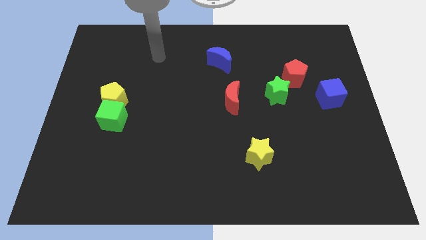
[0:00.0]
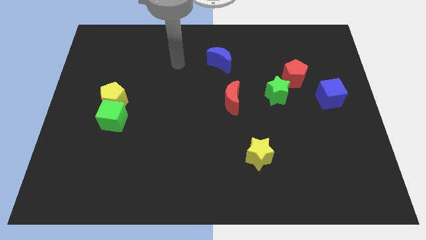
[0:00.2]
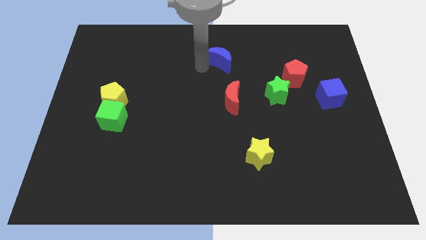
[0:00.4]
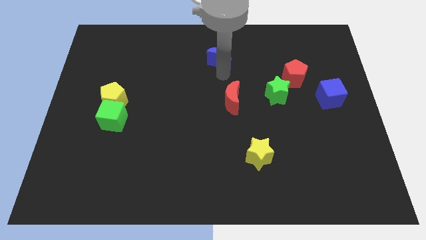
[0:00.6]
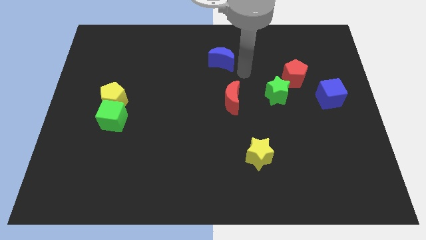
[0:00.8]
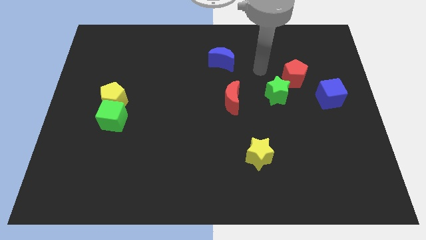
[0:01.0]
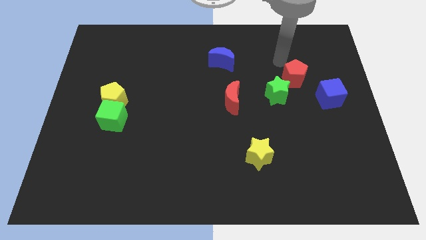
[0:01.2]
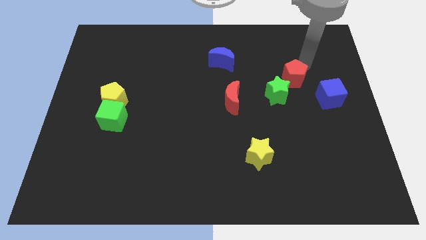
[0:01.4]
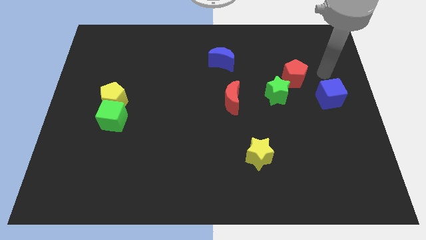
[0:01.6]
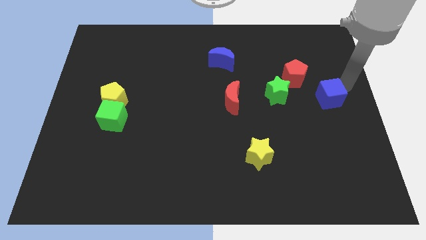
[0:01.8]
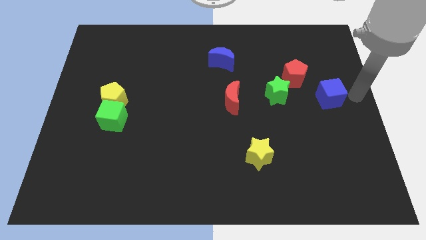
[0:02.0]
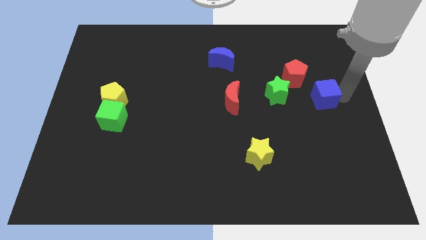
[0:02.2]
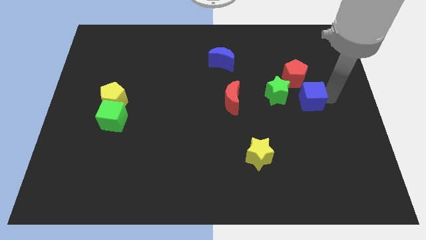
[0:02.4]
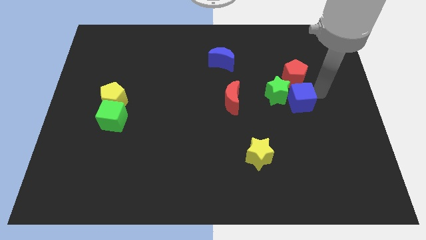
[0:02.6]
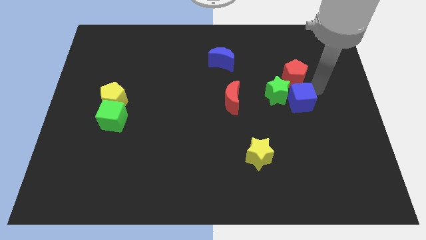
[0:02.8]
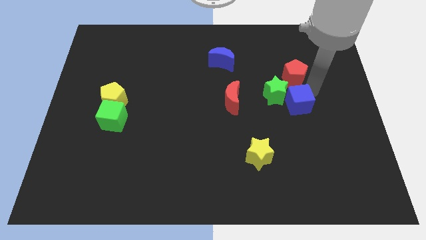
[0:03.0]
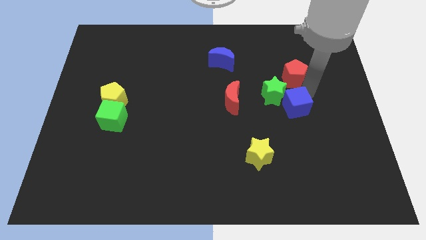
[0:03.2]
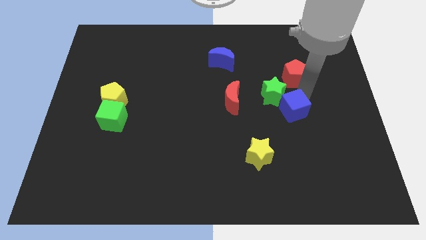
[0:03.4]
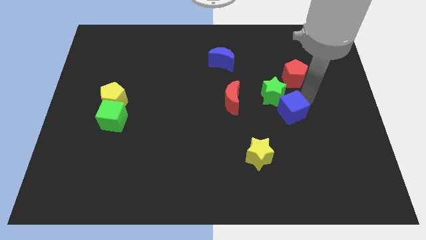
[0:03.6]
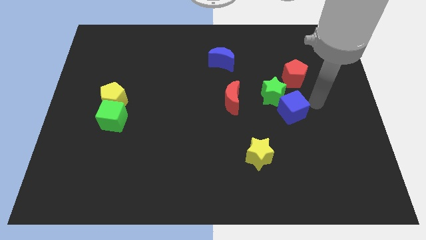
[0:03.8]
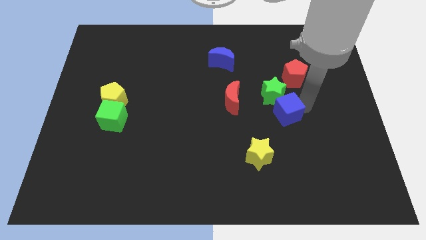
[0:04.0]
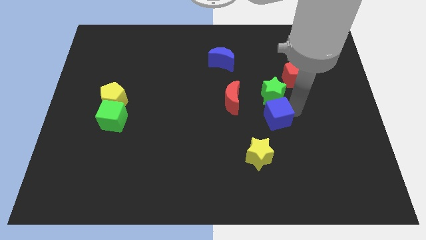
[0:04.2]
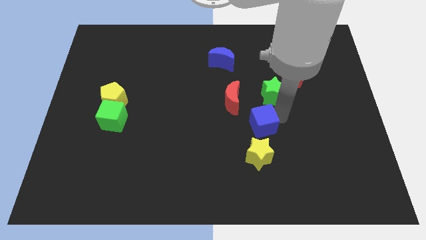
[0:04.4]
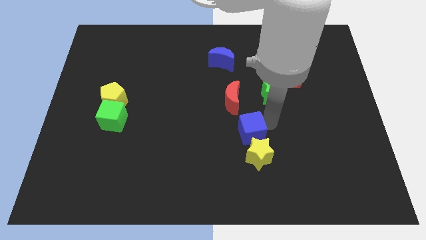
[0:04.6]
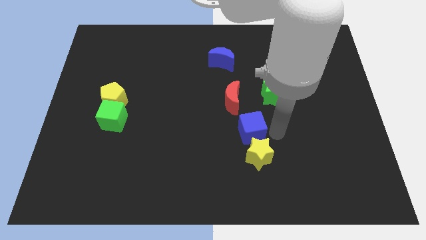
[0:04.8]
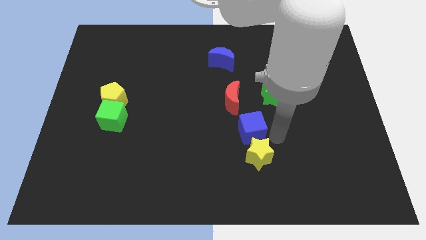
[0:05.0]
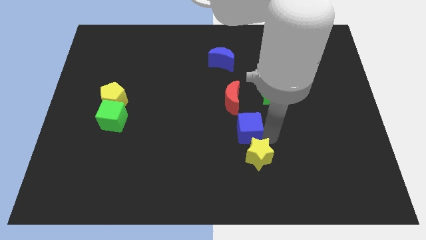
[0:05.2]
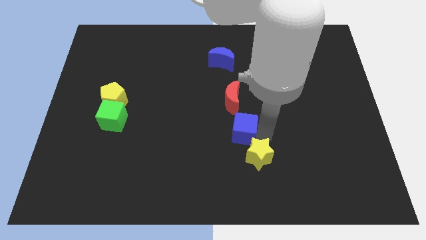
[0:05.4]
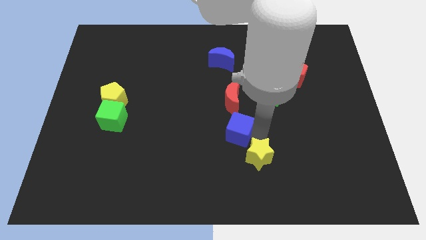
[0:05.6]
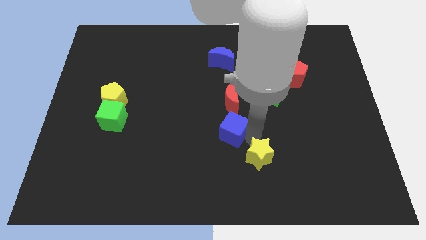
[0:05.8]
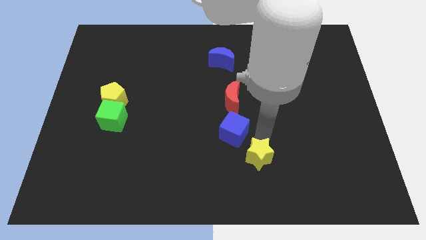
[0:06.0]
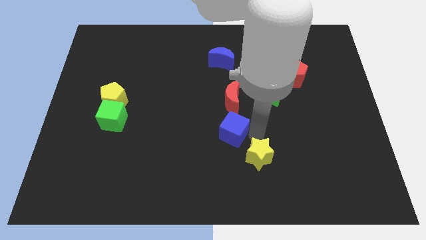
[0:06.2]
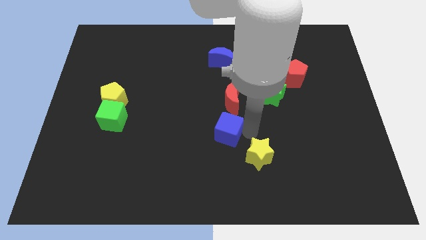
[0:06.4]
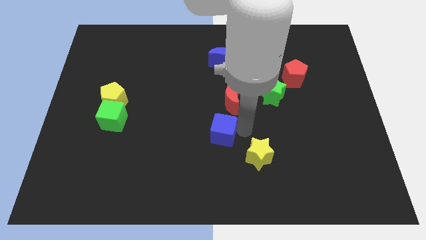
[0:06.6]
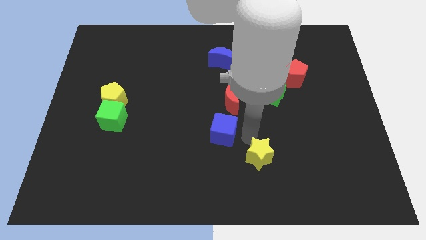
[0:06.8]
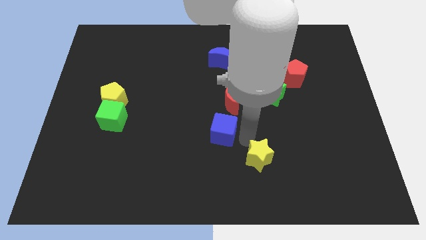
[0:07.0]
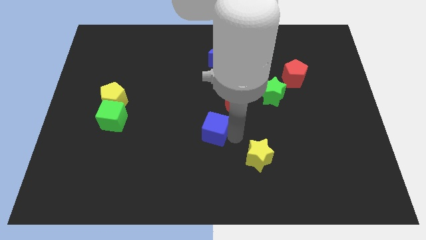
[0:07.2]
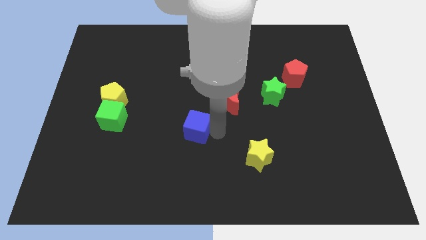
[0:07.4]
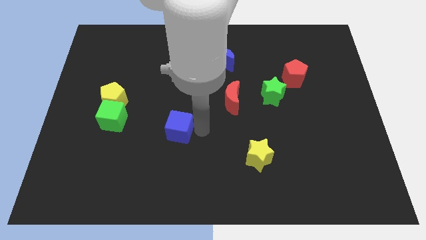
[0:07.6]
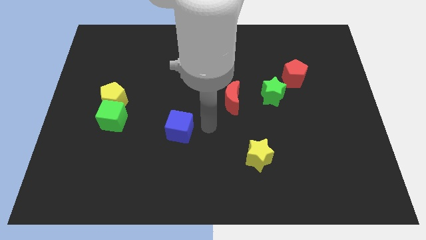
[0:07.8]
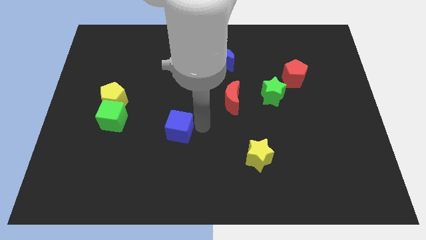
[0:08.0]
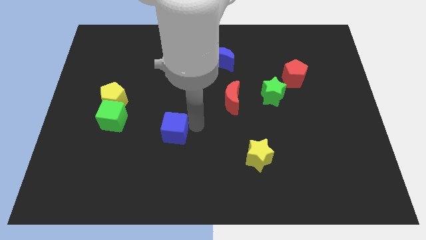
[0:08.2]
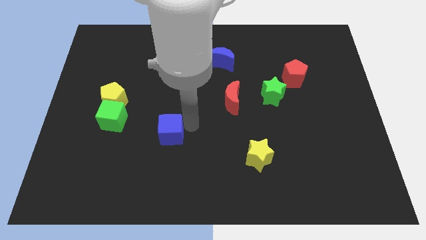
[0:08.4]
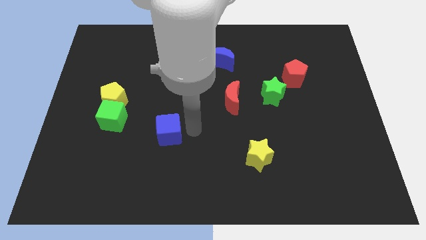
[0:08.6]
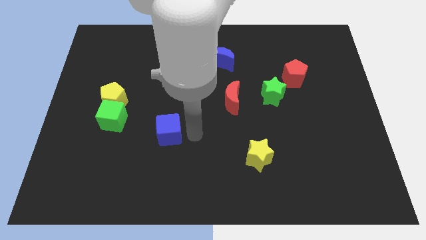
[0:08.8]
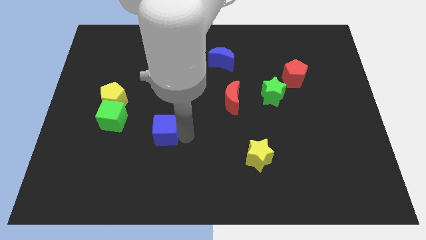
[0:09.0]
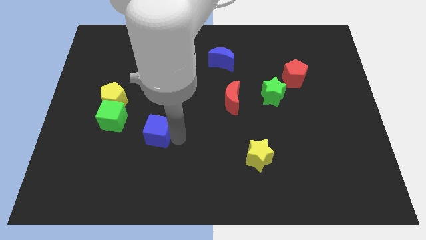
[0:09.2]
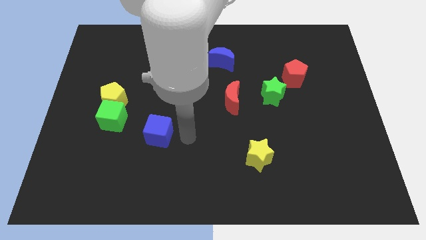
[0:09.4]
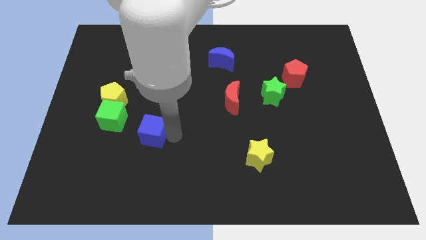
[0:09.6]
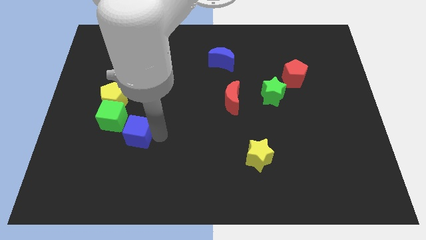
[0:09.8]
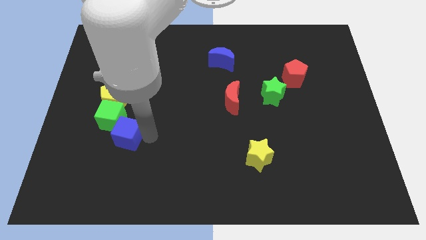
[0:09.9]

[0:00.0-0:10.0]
put the blue cube close to the green cube

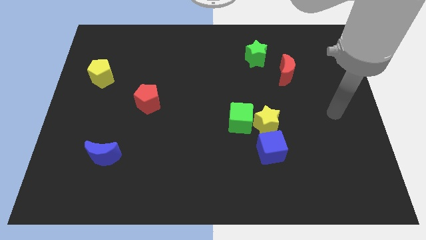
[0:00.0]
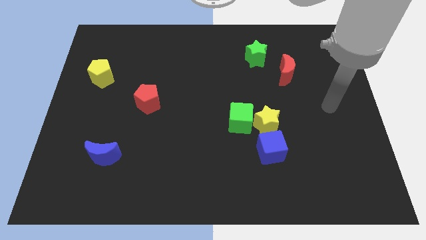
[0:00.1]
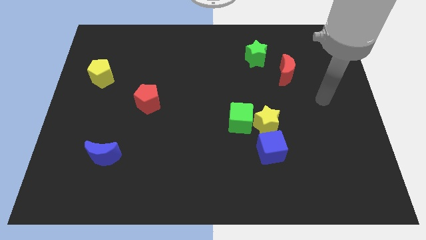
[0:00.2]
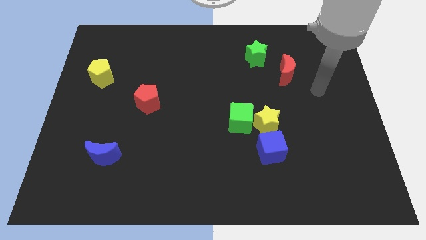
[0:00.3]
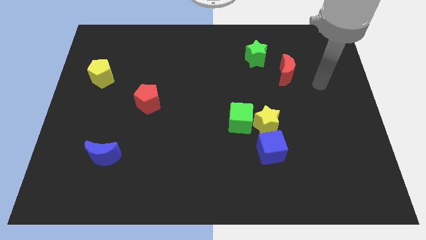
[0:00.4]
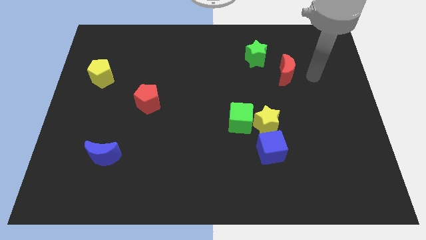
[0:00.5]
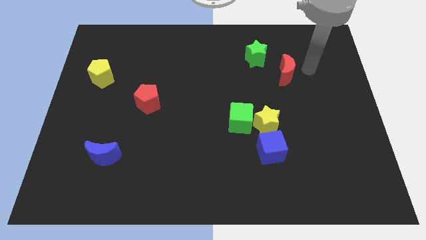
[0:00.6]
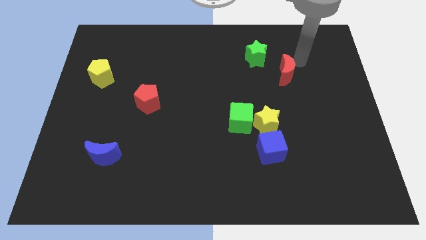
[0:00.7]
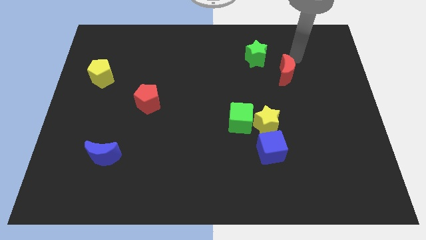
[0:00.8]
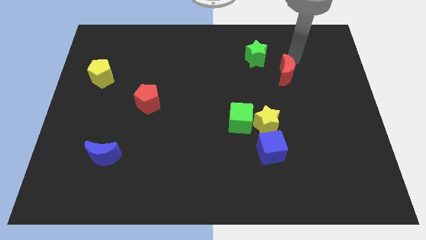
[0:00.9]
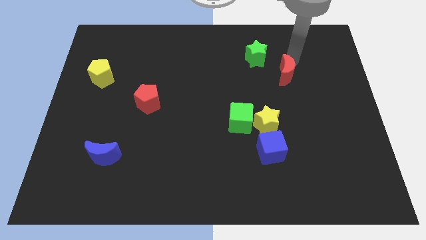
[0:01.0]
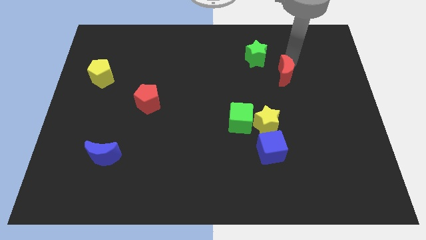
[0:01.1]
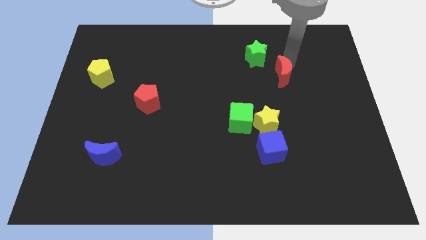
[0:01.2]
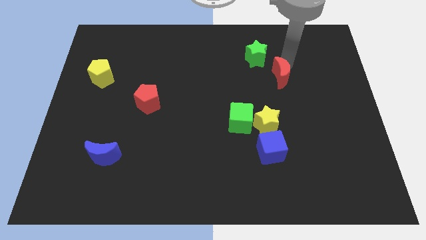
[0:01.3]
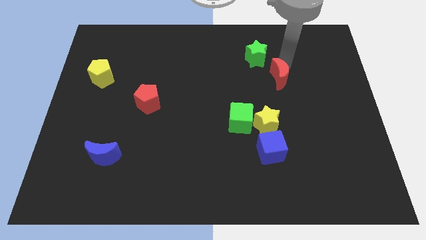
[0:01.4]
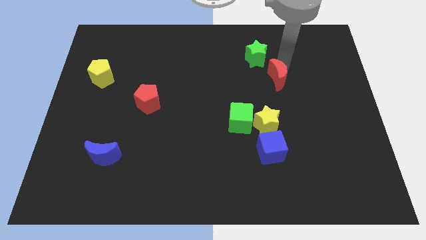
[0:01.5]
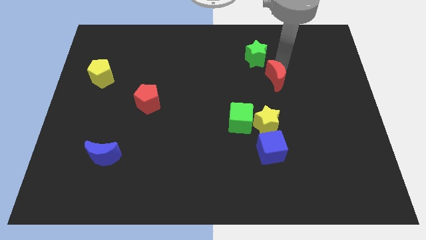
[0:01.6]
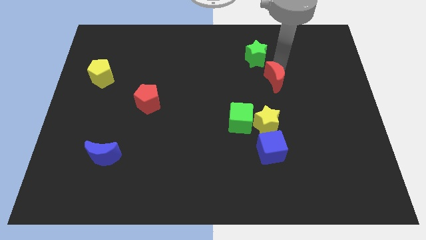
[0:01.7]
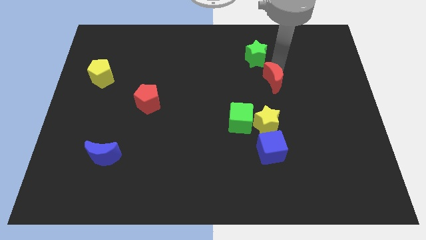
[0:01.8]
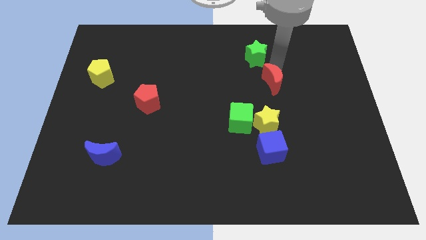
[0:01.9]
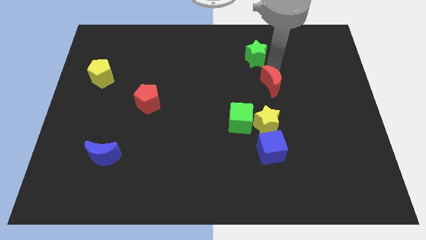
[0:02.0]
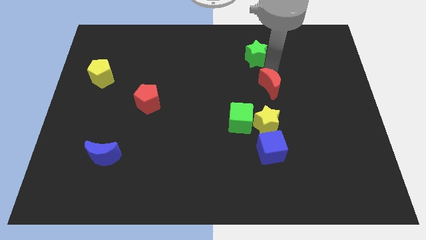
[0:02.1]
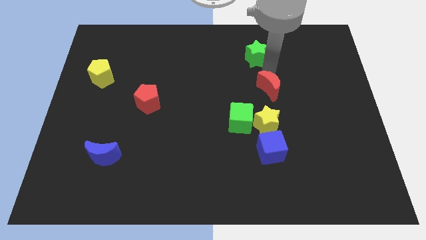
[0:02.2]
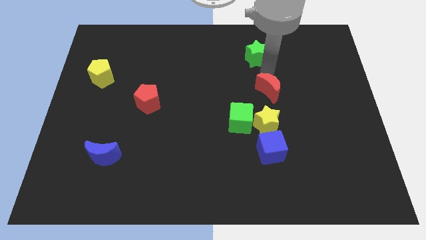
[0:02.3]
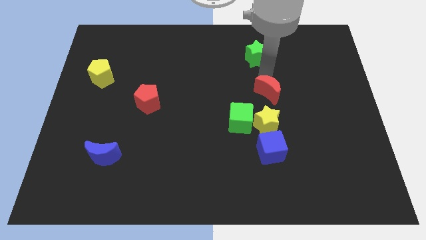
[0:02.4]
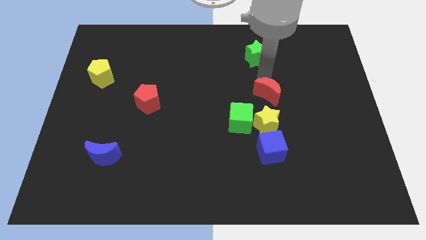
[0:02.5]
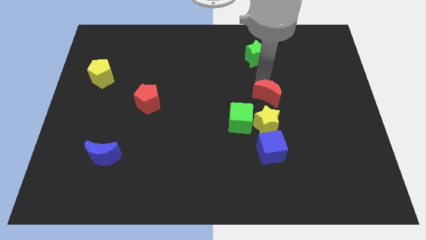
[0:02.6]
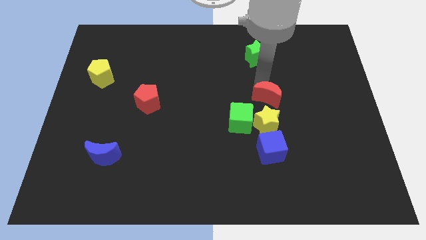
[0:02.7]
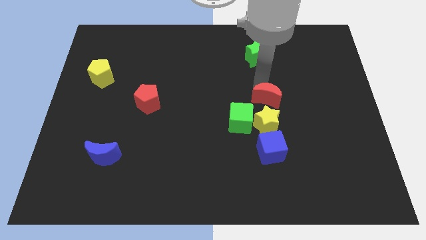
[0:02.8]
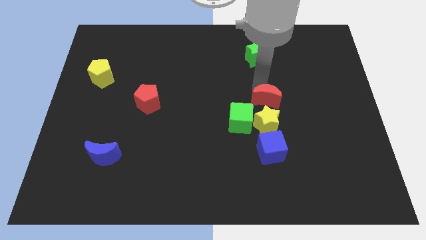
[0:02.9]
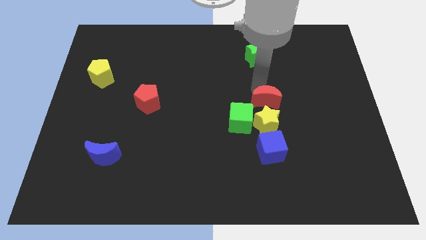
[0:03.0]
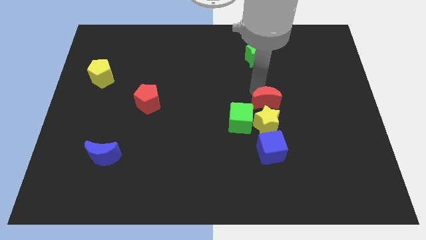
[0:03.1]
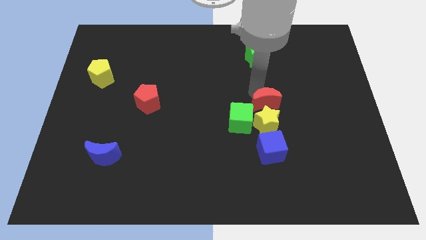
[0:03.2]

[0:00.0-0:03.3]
move the red moon towards the yellow star
